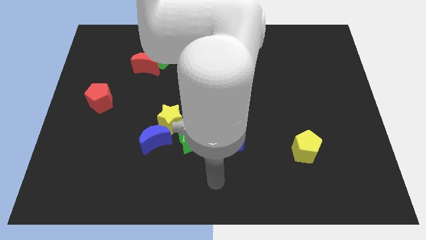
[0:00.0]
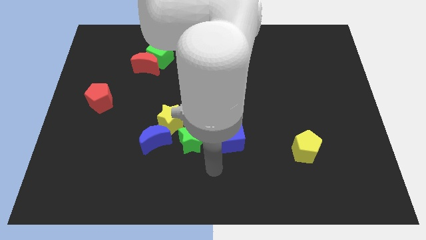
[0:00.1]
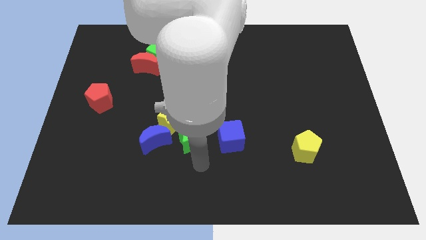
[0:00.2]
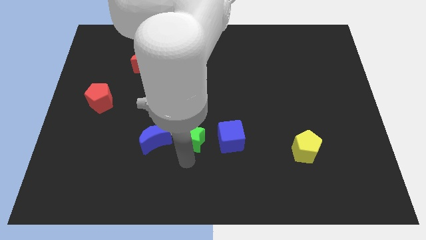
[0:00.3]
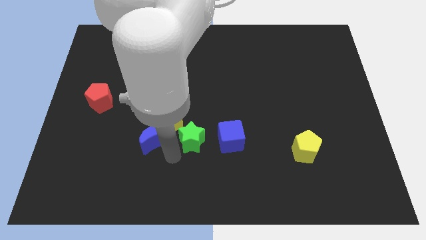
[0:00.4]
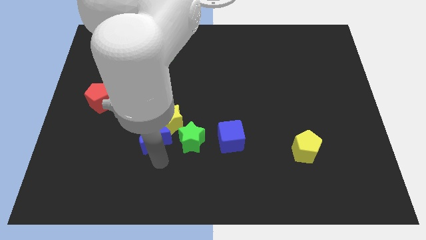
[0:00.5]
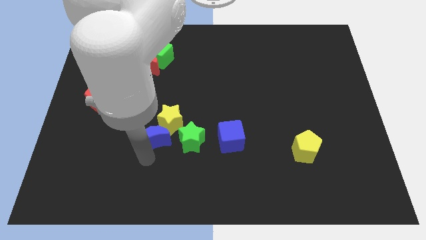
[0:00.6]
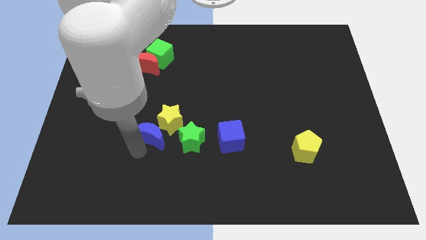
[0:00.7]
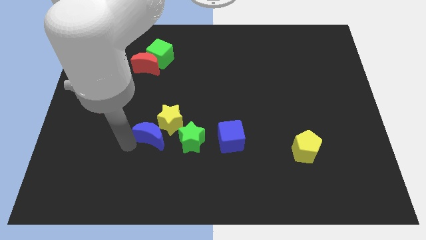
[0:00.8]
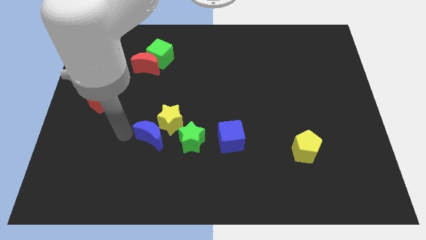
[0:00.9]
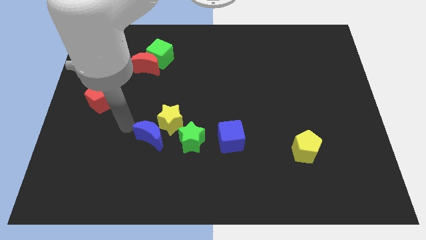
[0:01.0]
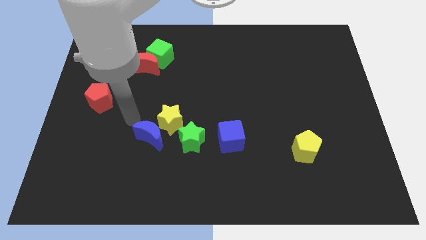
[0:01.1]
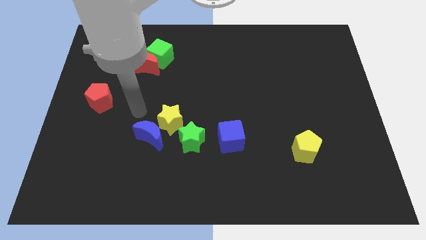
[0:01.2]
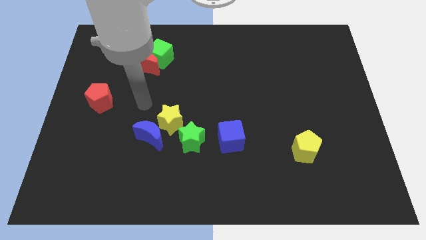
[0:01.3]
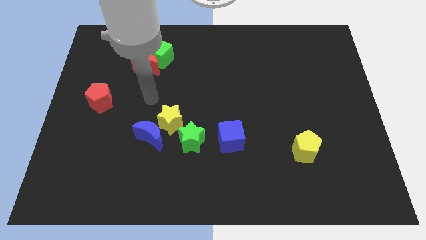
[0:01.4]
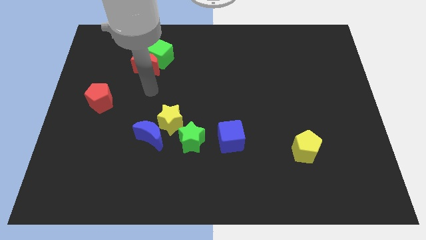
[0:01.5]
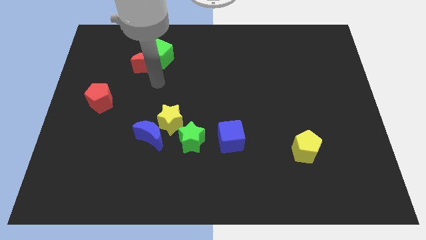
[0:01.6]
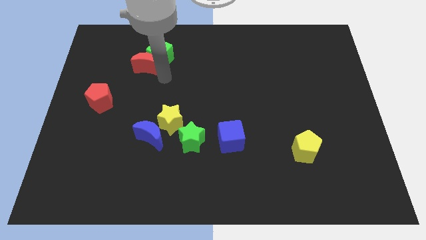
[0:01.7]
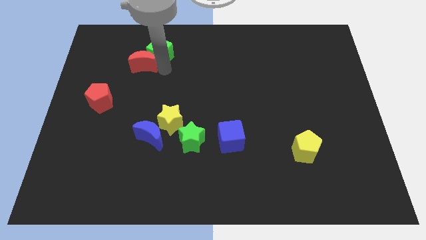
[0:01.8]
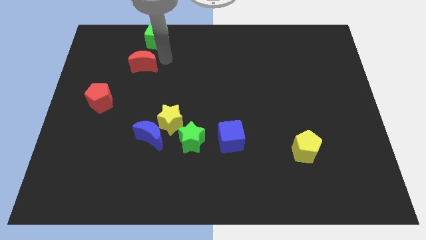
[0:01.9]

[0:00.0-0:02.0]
separate the red moon from the green cube

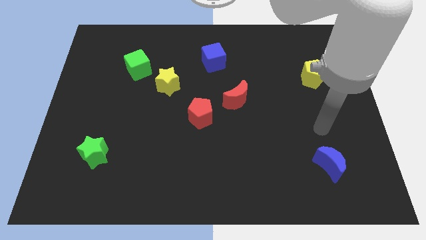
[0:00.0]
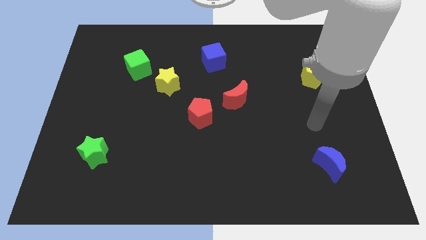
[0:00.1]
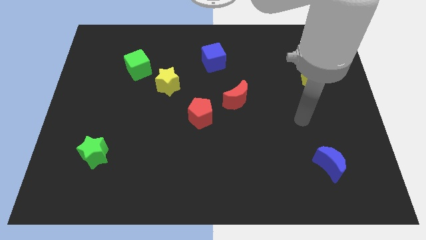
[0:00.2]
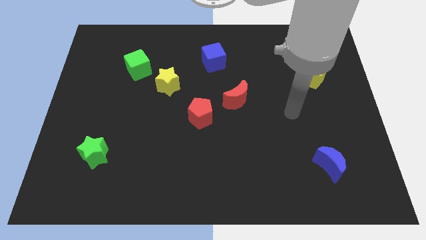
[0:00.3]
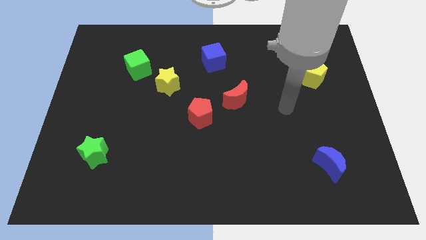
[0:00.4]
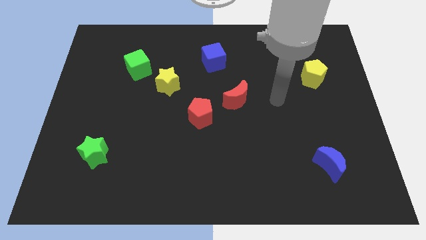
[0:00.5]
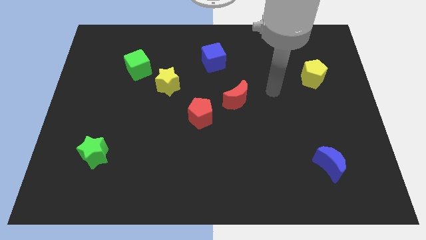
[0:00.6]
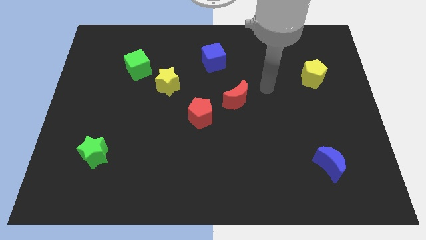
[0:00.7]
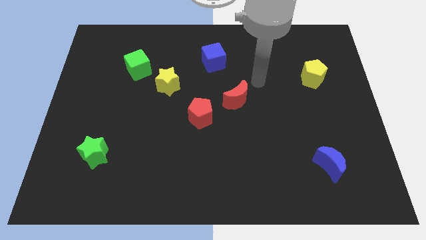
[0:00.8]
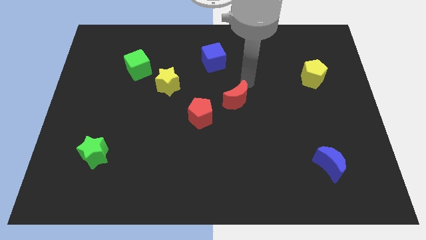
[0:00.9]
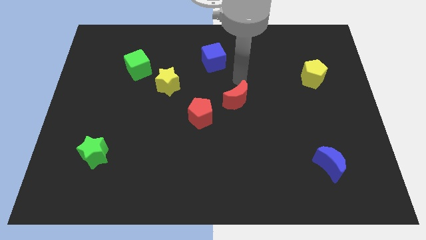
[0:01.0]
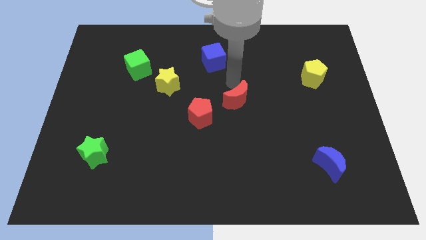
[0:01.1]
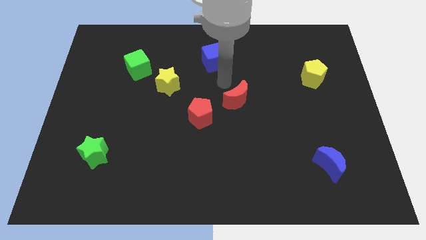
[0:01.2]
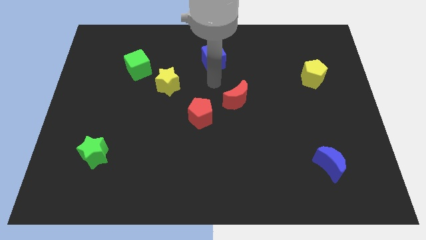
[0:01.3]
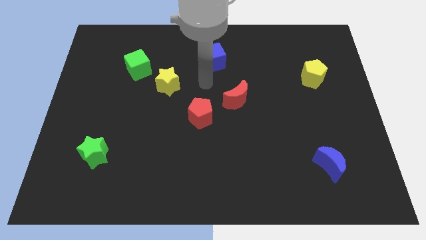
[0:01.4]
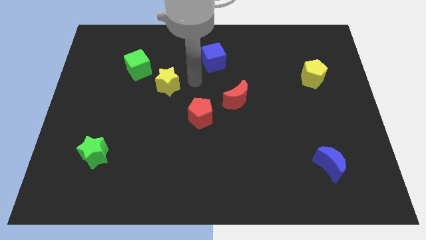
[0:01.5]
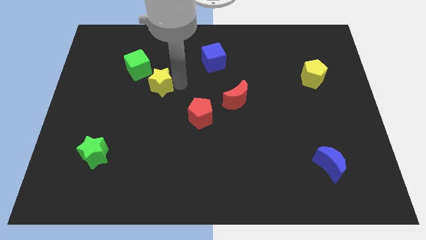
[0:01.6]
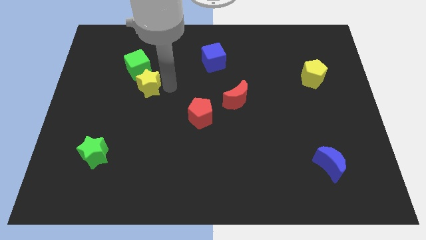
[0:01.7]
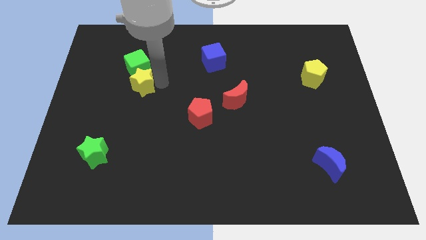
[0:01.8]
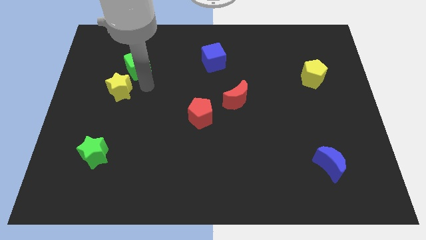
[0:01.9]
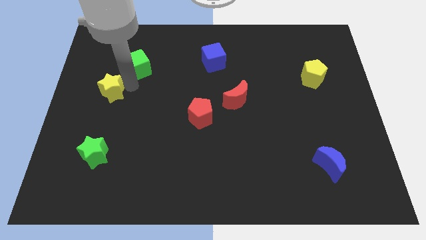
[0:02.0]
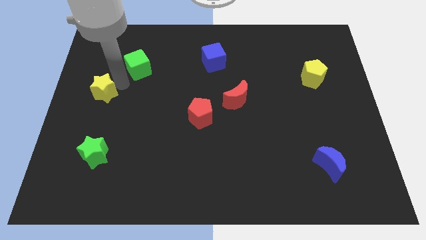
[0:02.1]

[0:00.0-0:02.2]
separate the green cube from the yellow star

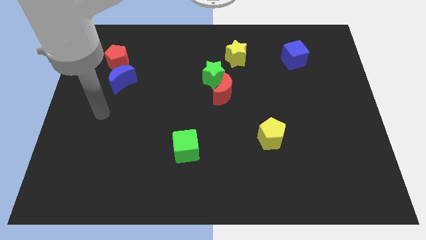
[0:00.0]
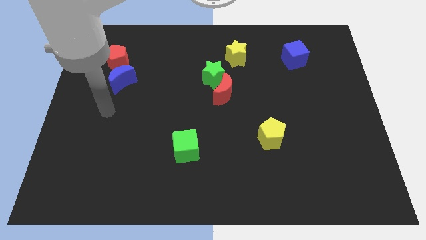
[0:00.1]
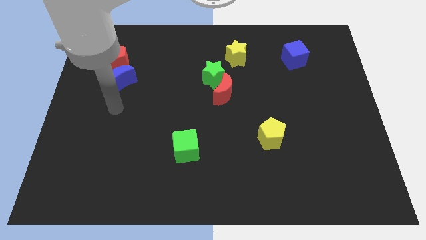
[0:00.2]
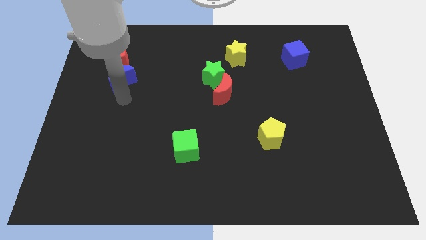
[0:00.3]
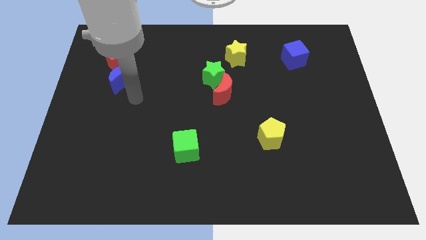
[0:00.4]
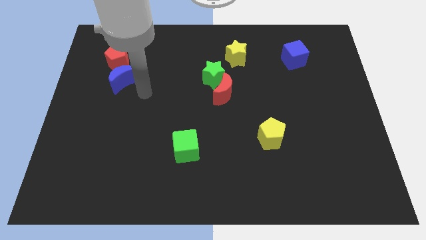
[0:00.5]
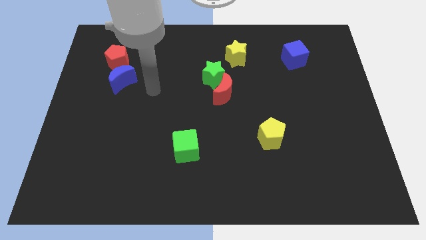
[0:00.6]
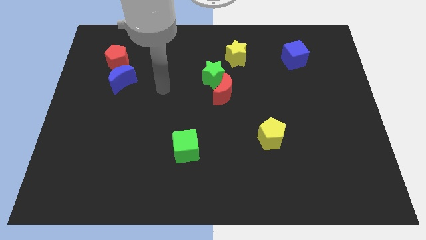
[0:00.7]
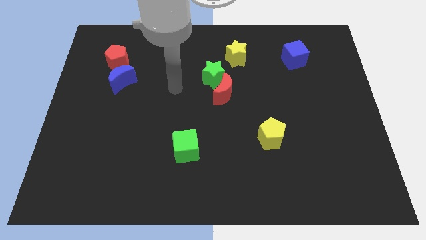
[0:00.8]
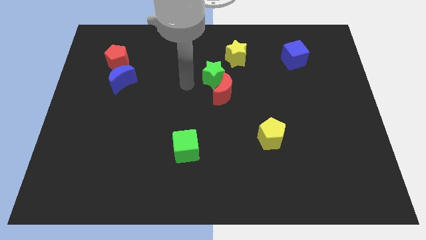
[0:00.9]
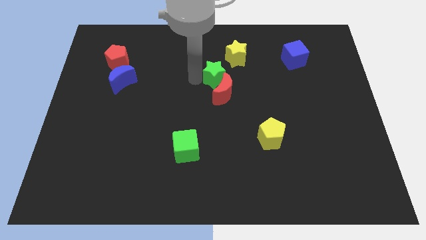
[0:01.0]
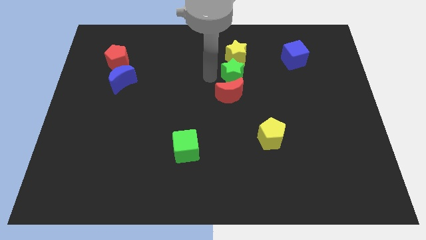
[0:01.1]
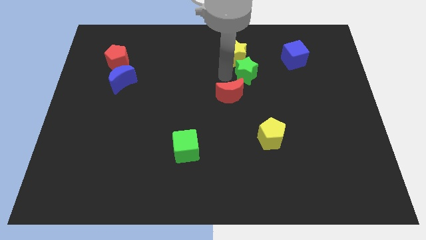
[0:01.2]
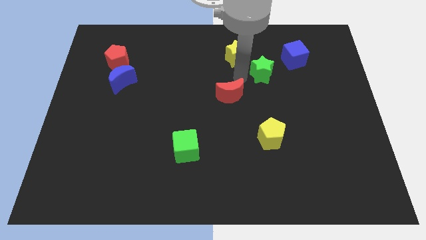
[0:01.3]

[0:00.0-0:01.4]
separate the red moon from the green star

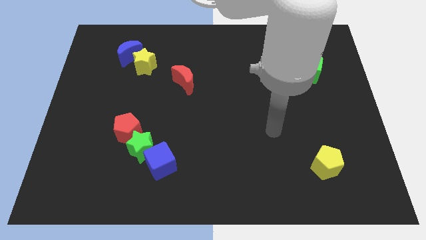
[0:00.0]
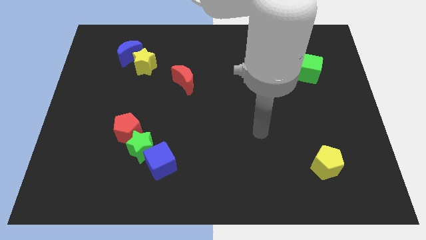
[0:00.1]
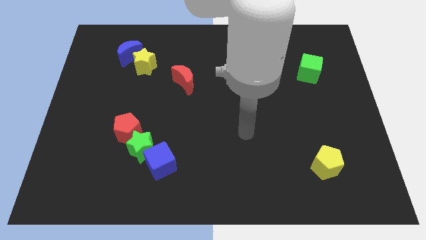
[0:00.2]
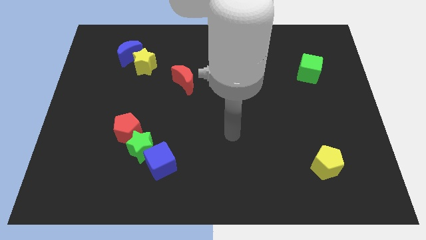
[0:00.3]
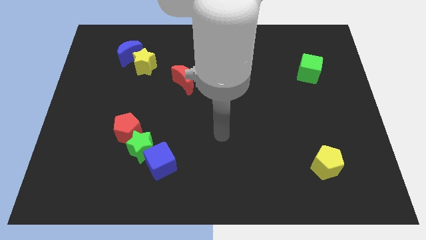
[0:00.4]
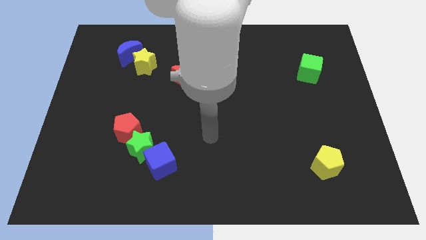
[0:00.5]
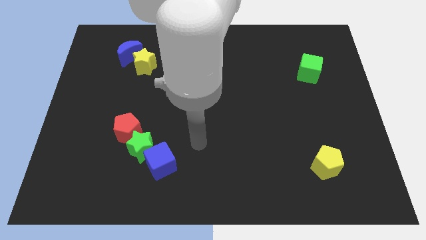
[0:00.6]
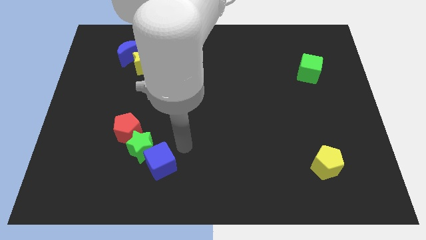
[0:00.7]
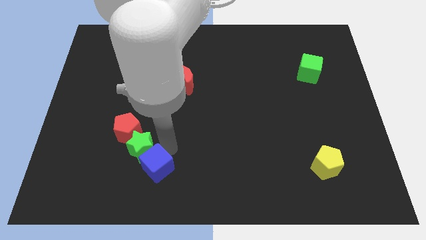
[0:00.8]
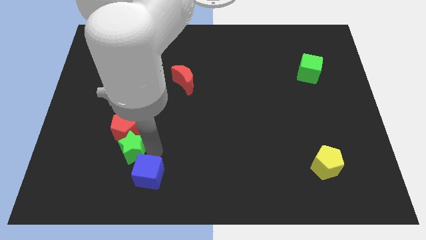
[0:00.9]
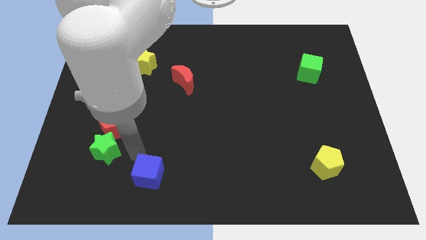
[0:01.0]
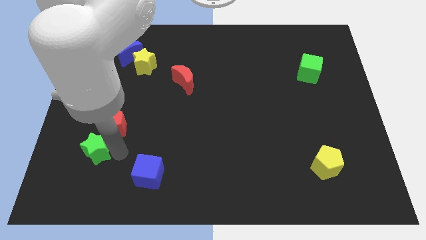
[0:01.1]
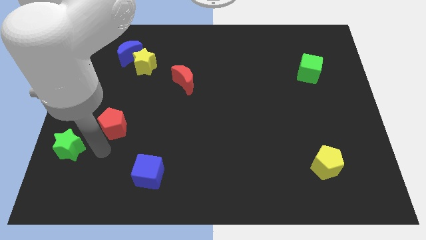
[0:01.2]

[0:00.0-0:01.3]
move the red pentagon away from the green star

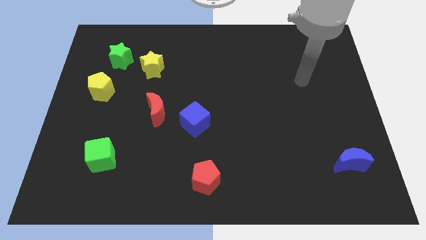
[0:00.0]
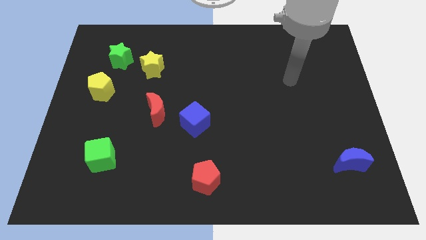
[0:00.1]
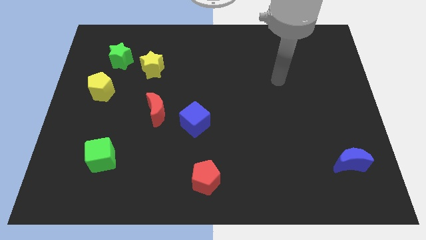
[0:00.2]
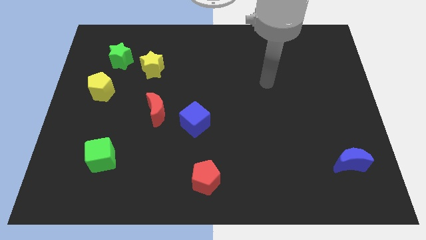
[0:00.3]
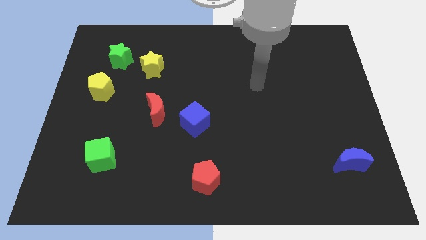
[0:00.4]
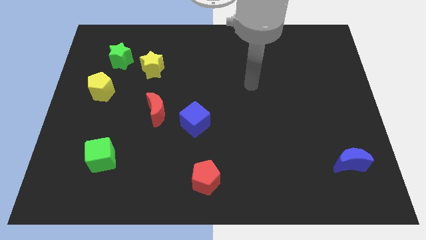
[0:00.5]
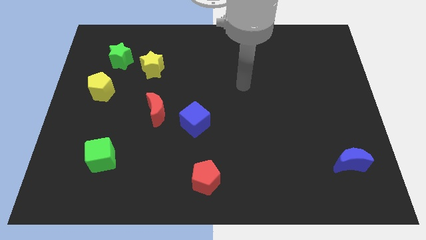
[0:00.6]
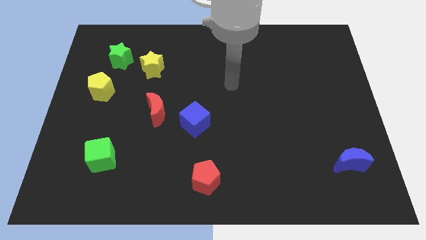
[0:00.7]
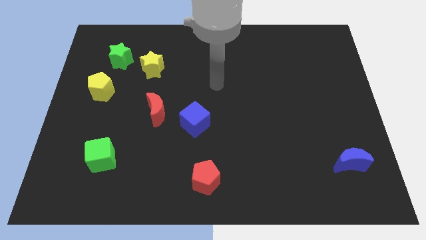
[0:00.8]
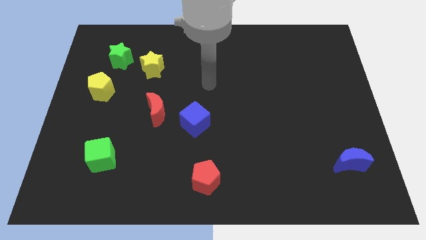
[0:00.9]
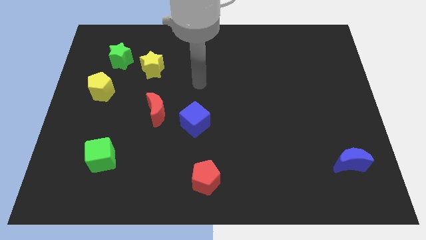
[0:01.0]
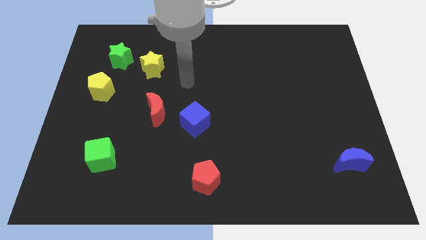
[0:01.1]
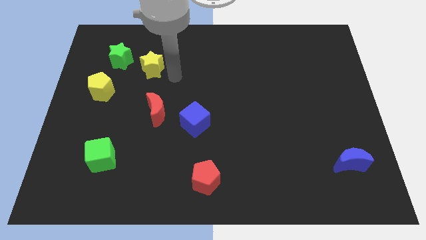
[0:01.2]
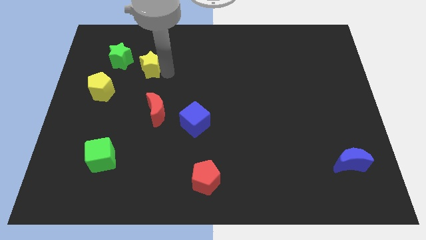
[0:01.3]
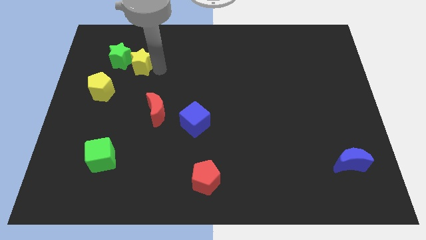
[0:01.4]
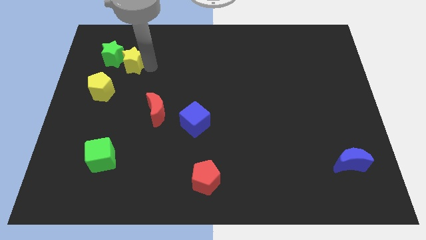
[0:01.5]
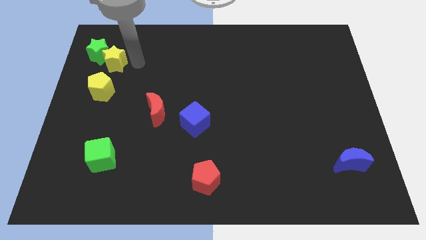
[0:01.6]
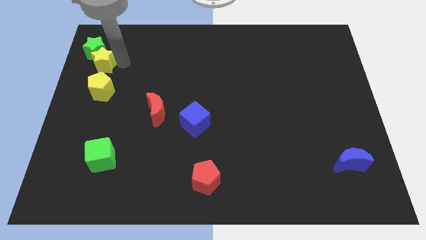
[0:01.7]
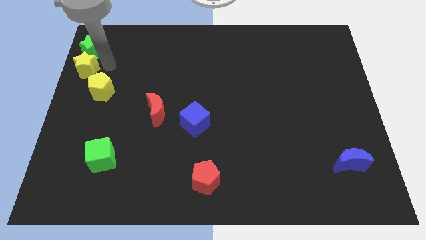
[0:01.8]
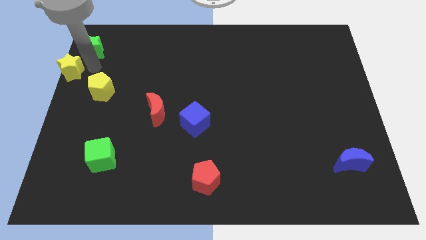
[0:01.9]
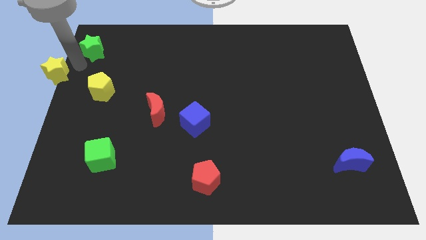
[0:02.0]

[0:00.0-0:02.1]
separate the green star from the yellow star

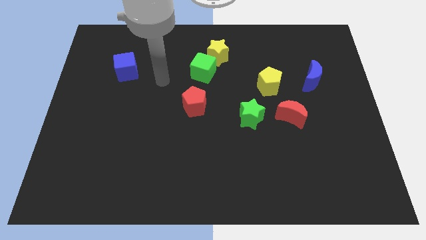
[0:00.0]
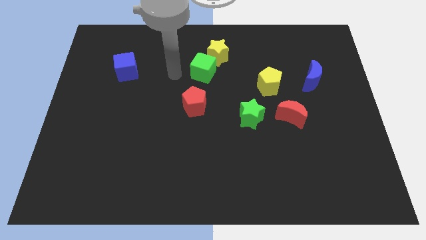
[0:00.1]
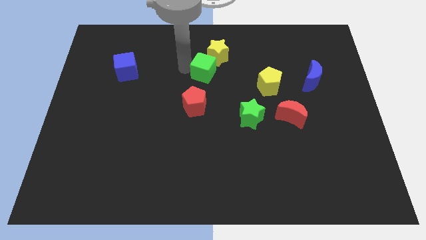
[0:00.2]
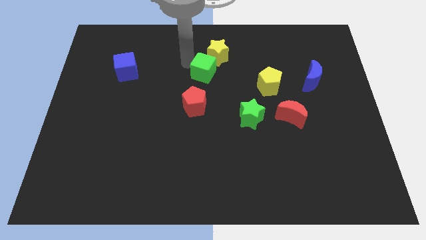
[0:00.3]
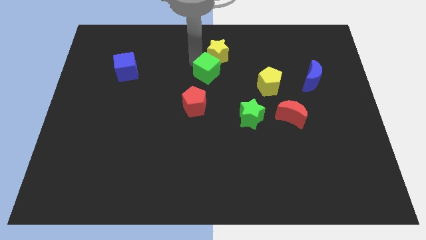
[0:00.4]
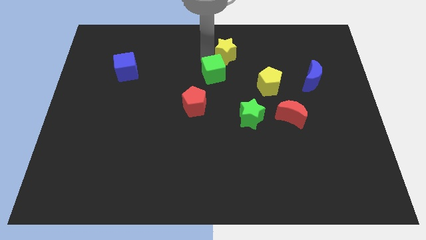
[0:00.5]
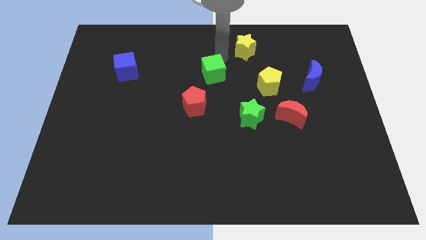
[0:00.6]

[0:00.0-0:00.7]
pull the green cube apart from the yellow star
